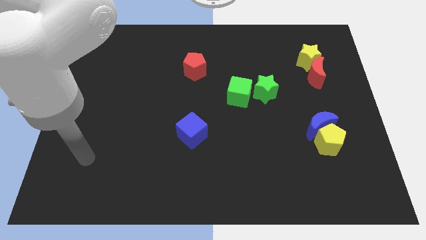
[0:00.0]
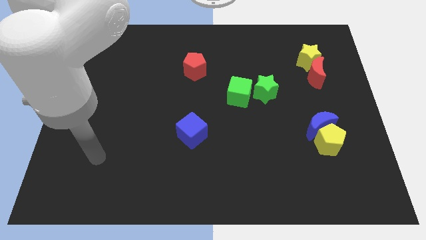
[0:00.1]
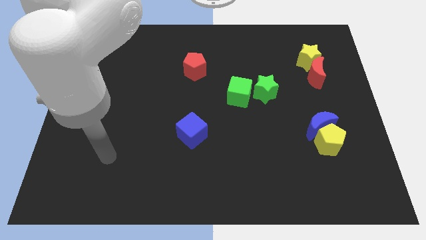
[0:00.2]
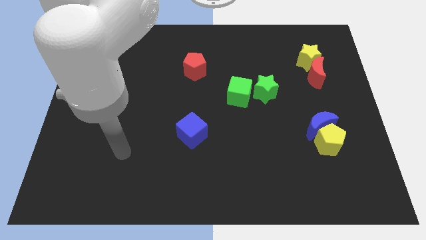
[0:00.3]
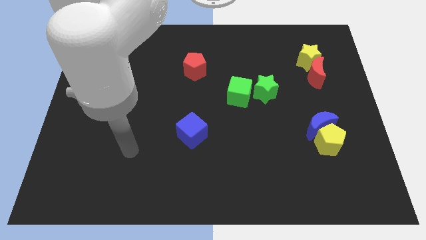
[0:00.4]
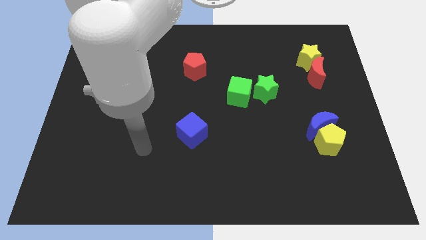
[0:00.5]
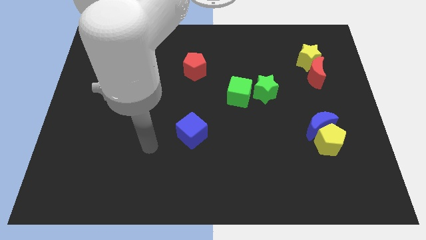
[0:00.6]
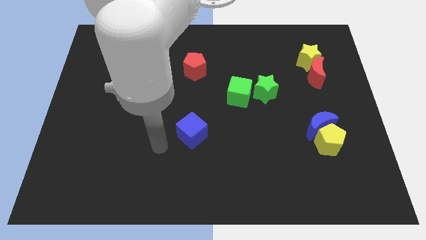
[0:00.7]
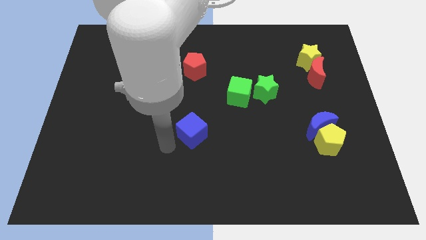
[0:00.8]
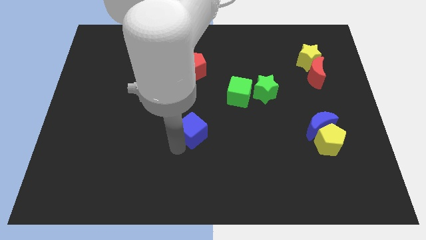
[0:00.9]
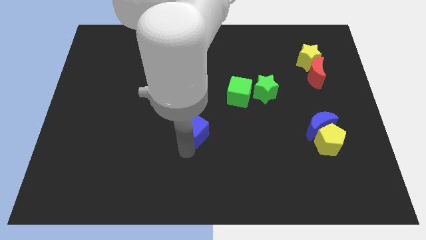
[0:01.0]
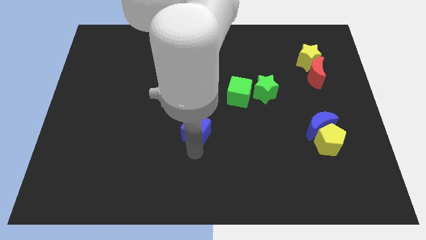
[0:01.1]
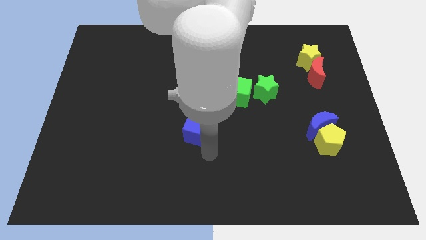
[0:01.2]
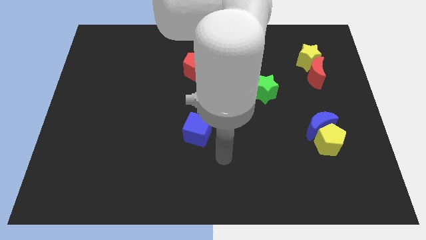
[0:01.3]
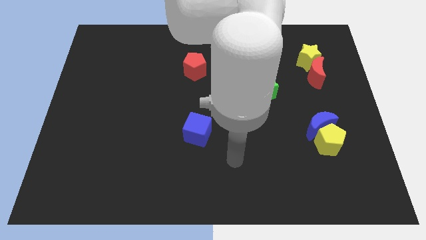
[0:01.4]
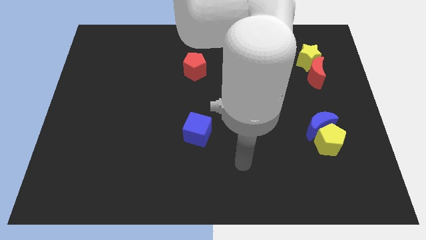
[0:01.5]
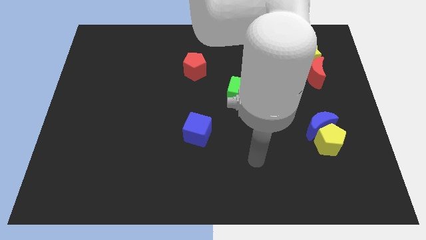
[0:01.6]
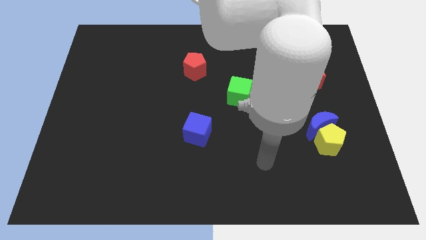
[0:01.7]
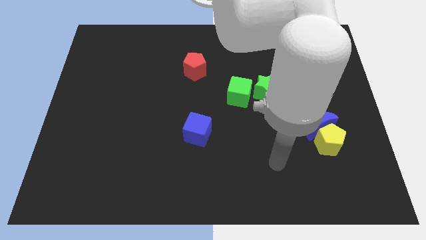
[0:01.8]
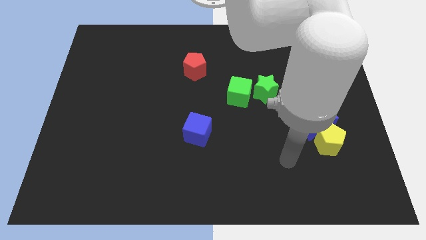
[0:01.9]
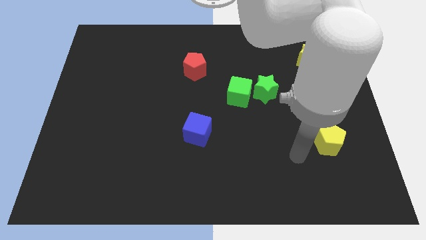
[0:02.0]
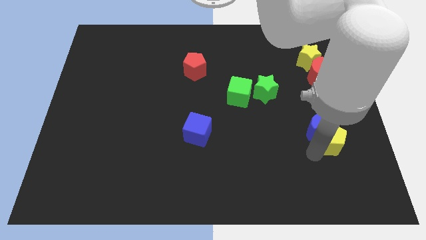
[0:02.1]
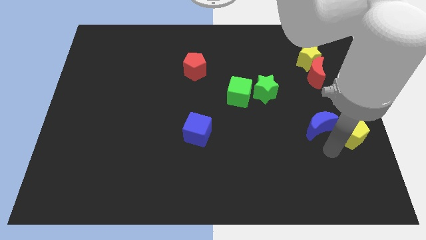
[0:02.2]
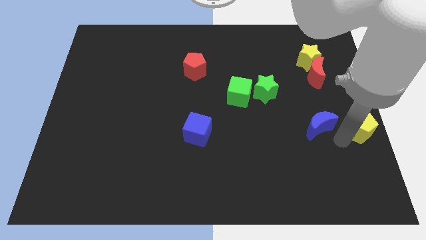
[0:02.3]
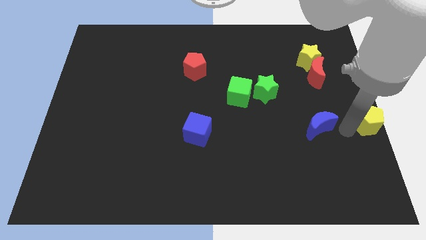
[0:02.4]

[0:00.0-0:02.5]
separate the blue moon from the yellow pentagon

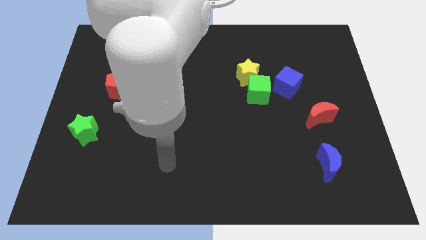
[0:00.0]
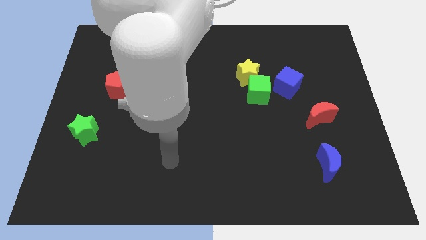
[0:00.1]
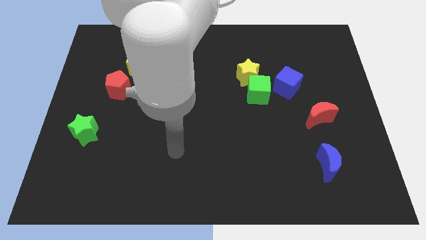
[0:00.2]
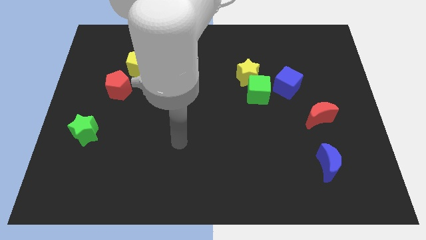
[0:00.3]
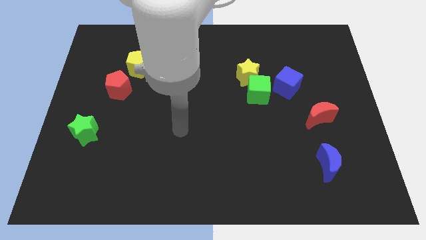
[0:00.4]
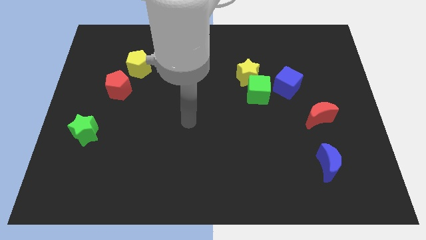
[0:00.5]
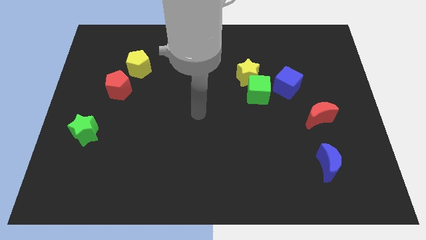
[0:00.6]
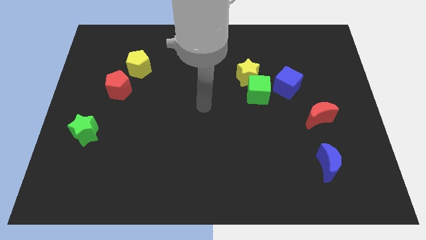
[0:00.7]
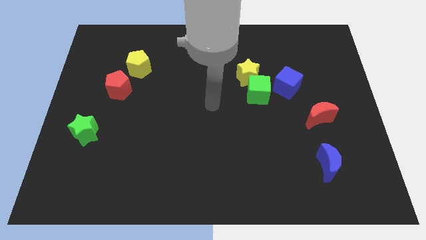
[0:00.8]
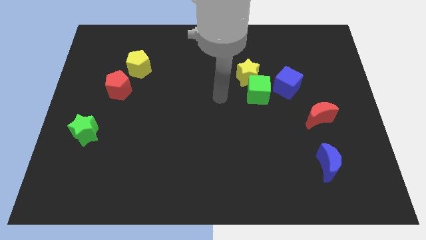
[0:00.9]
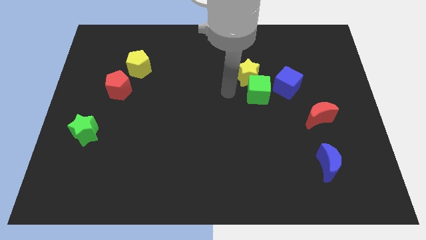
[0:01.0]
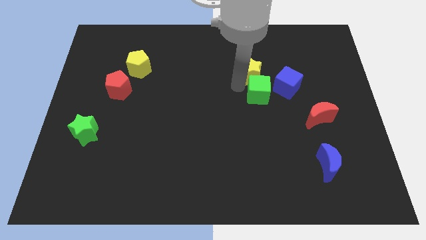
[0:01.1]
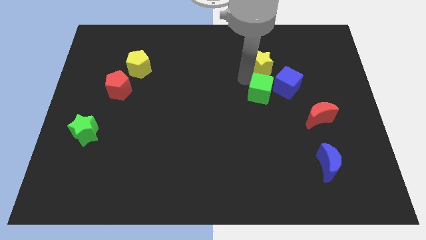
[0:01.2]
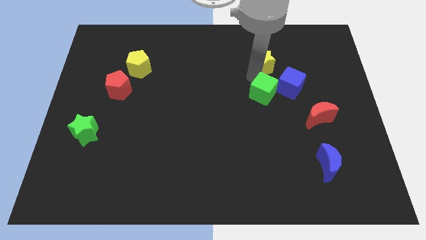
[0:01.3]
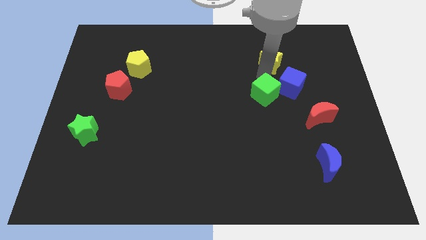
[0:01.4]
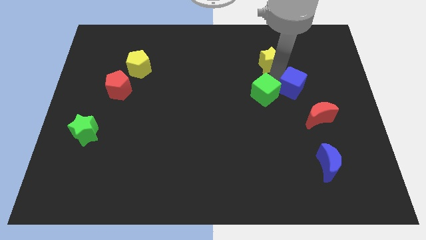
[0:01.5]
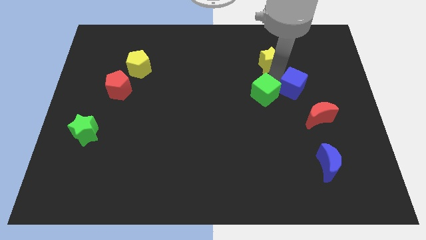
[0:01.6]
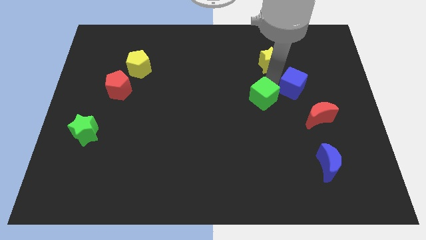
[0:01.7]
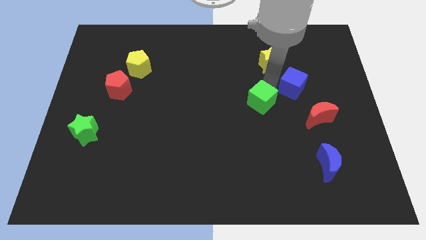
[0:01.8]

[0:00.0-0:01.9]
separate the green cube from the yellow star and blue cube

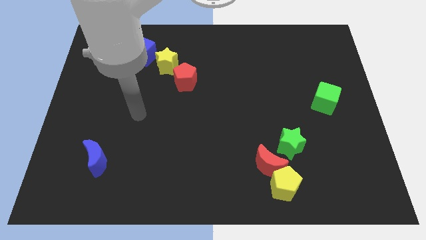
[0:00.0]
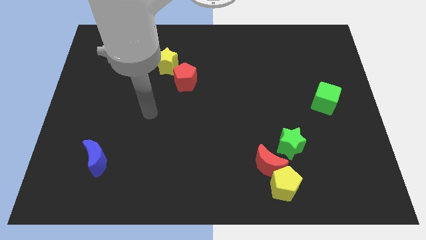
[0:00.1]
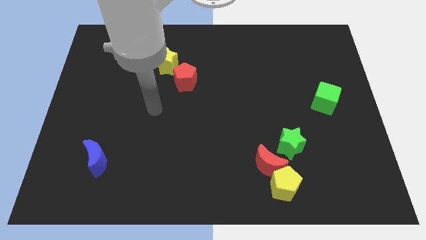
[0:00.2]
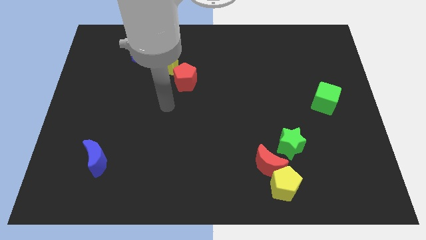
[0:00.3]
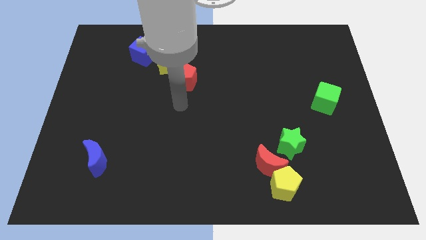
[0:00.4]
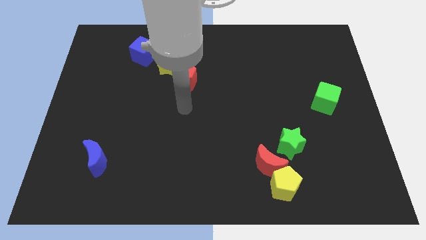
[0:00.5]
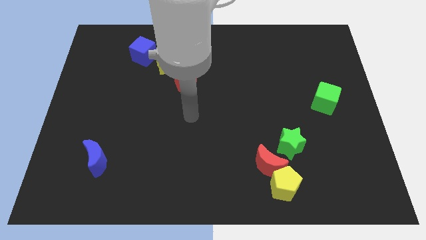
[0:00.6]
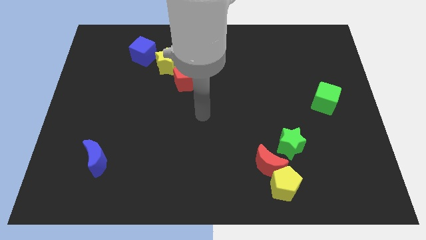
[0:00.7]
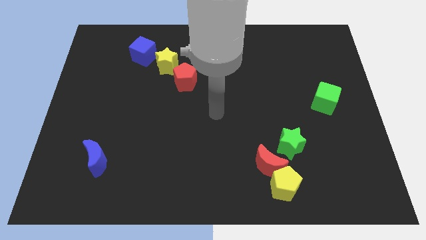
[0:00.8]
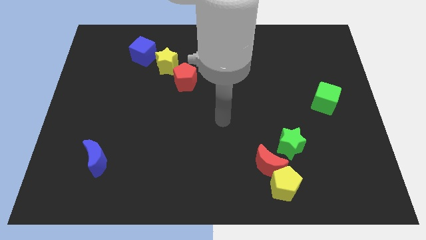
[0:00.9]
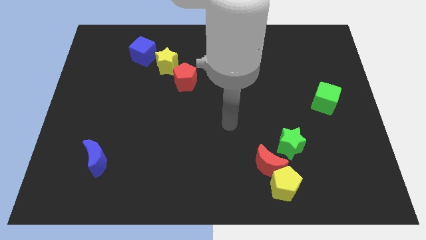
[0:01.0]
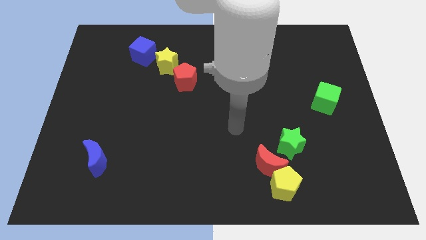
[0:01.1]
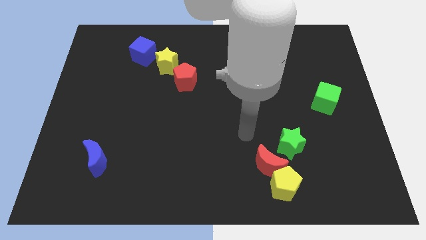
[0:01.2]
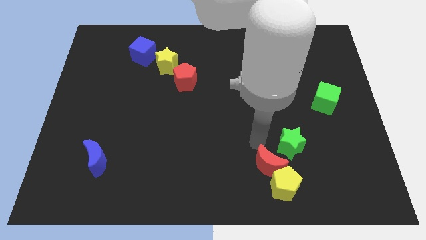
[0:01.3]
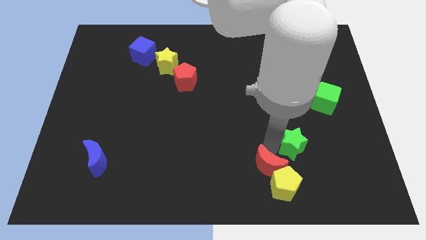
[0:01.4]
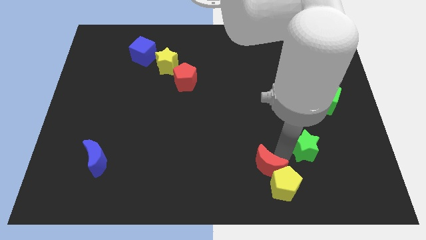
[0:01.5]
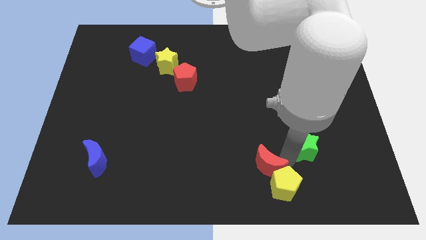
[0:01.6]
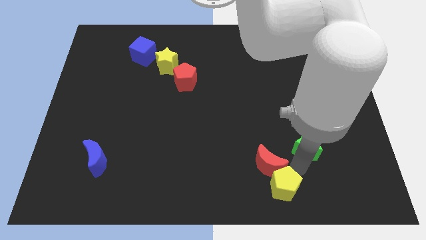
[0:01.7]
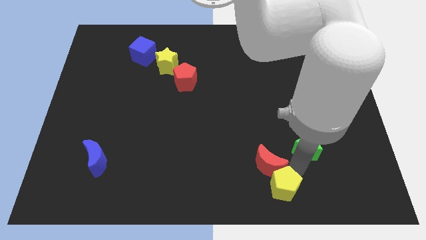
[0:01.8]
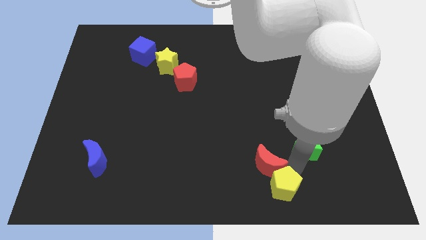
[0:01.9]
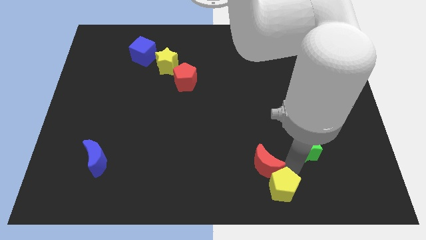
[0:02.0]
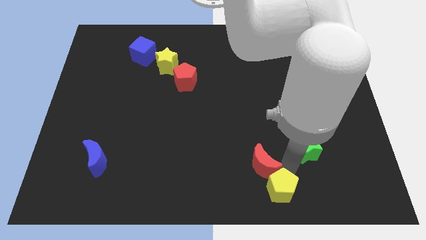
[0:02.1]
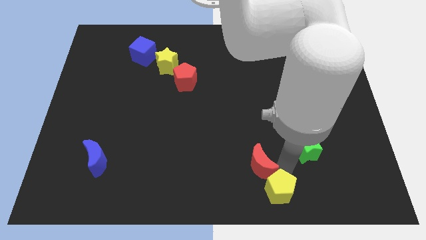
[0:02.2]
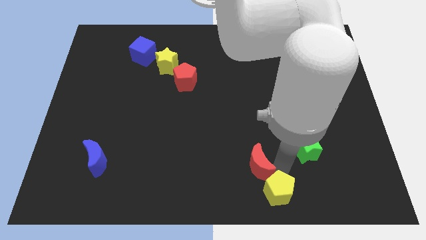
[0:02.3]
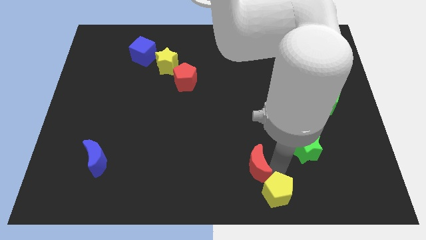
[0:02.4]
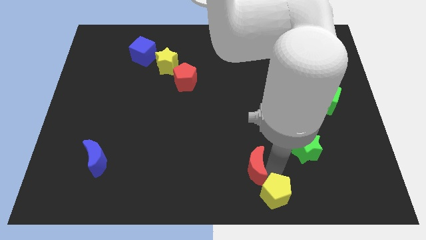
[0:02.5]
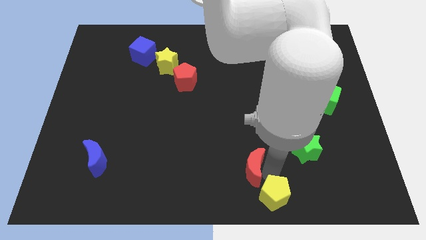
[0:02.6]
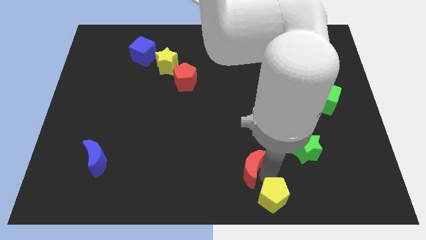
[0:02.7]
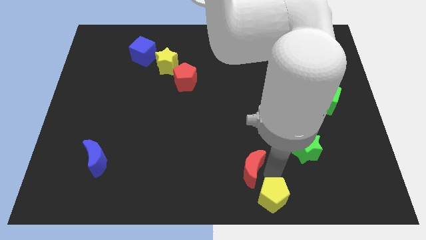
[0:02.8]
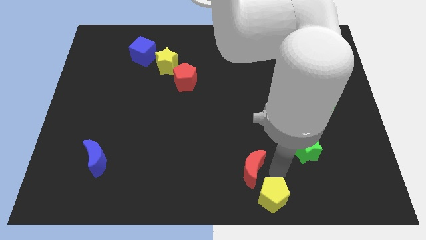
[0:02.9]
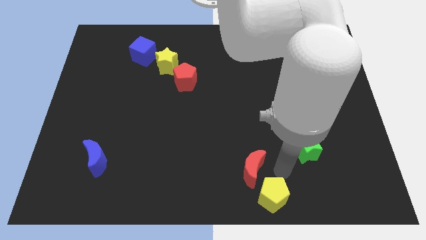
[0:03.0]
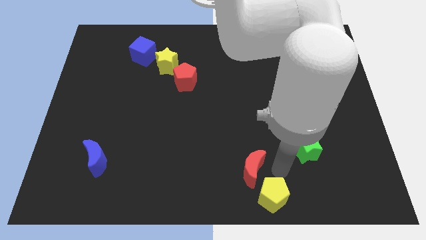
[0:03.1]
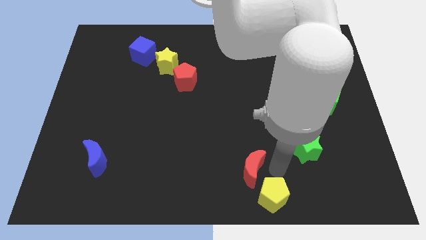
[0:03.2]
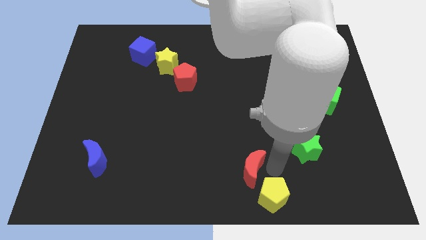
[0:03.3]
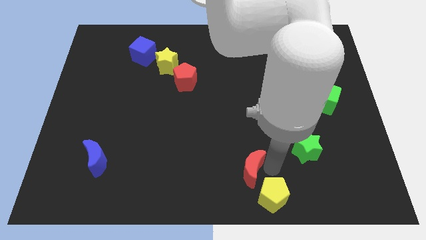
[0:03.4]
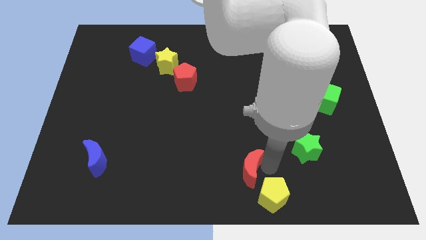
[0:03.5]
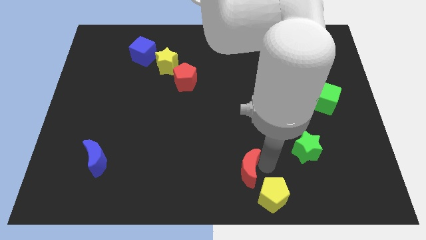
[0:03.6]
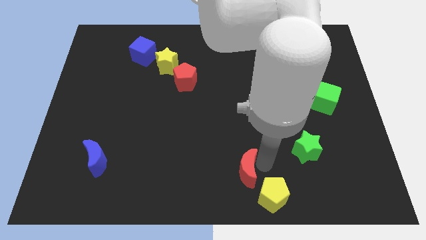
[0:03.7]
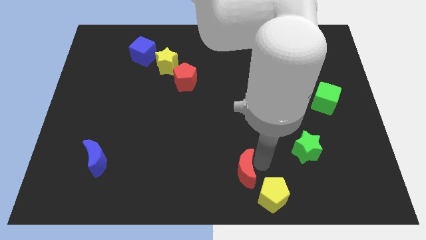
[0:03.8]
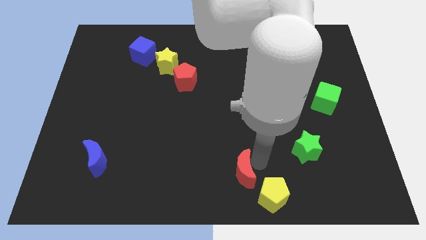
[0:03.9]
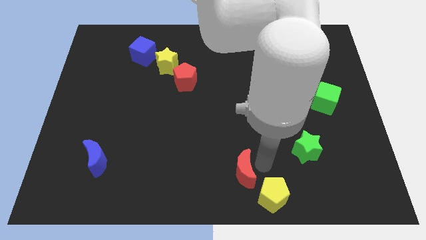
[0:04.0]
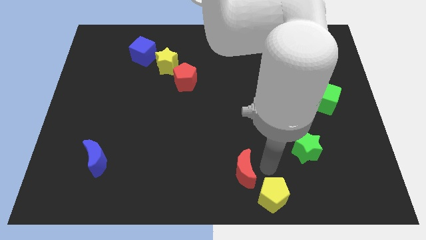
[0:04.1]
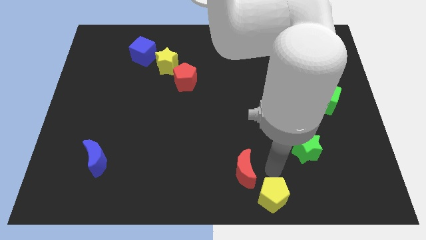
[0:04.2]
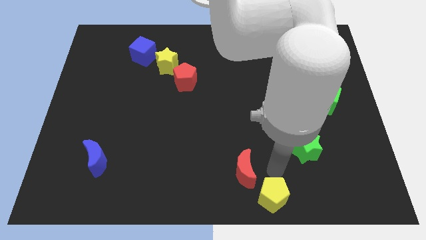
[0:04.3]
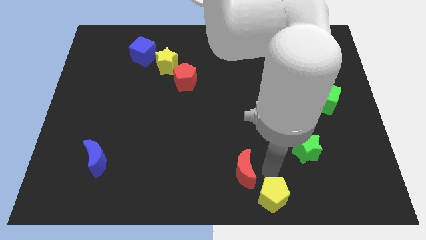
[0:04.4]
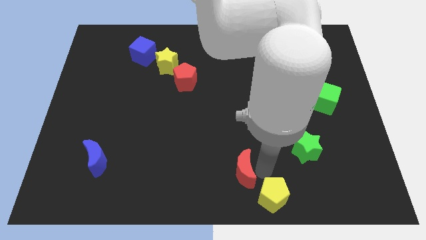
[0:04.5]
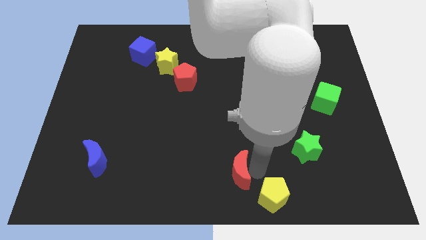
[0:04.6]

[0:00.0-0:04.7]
move the red moon away from the yellow pentagon and green star

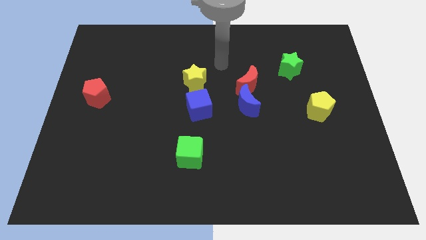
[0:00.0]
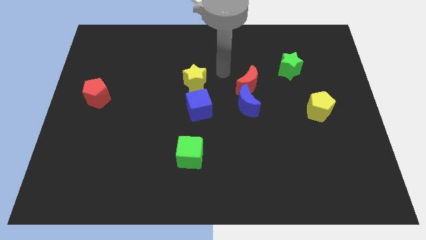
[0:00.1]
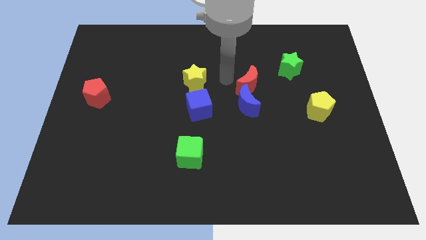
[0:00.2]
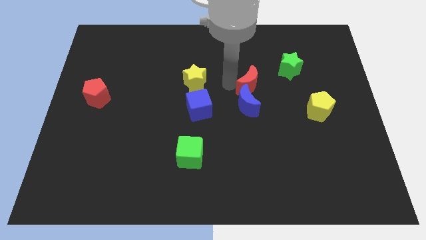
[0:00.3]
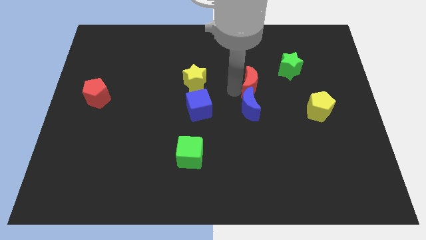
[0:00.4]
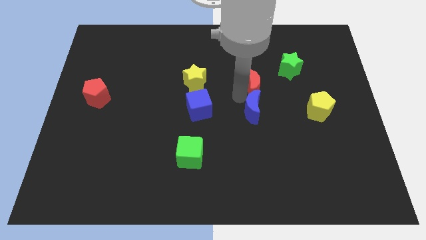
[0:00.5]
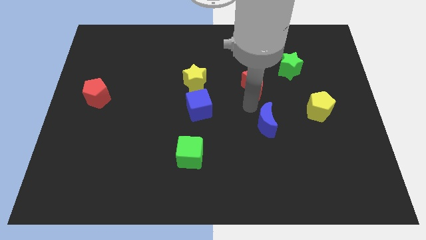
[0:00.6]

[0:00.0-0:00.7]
move the red moon away from the blue moon
